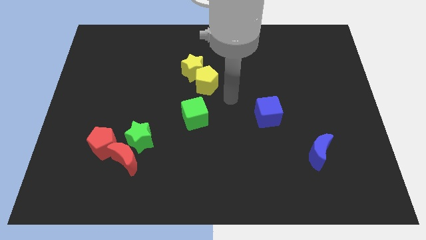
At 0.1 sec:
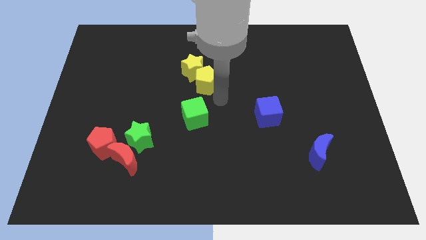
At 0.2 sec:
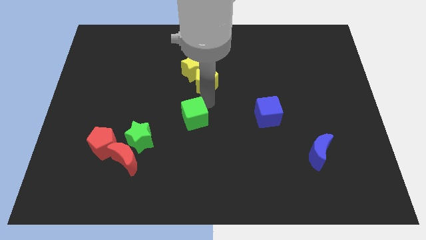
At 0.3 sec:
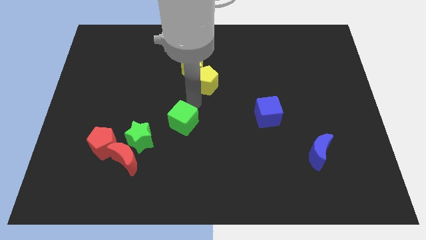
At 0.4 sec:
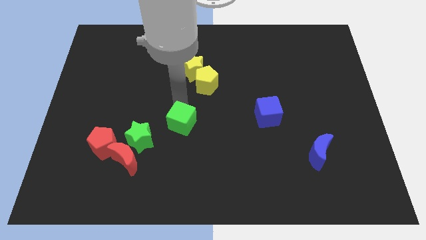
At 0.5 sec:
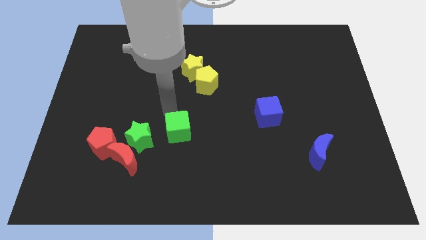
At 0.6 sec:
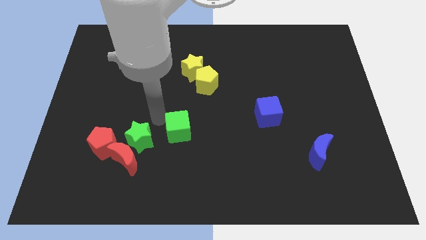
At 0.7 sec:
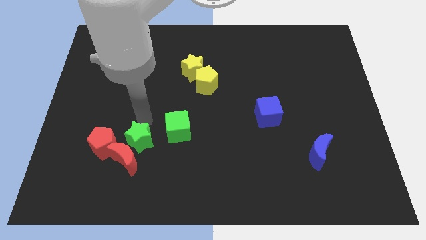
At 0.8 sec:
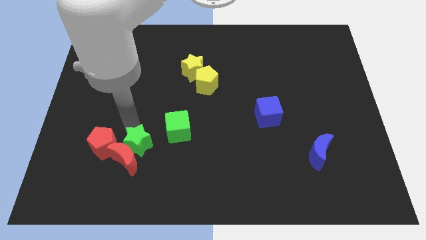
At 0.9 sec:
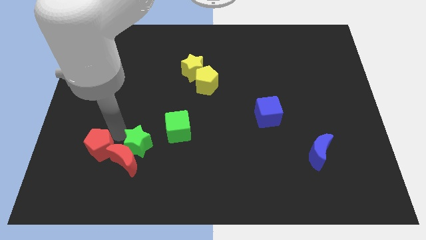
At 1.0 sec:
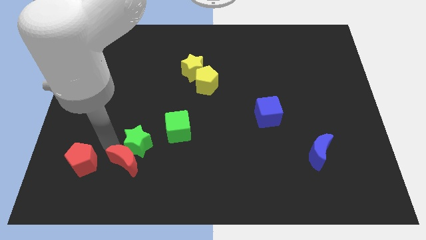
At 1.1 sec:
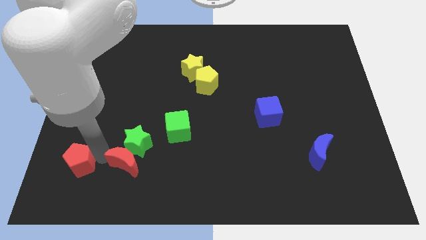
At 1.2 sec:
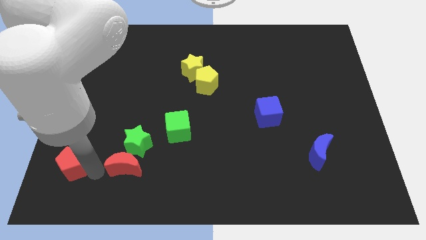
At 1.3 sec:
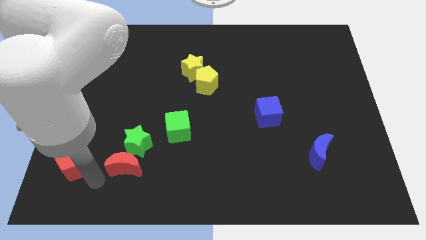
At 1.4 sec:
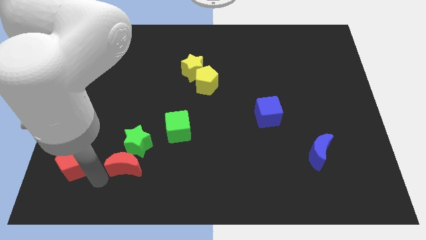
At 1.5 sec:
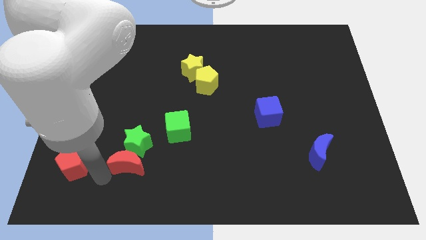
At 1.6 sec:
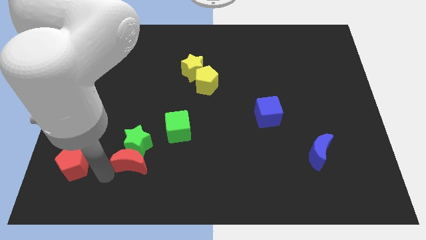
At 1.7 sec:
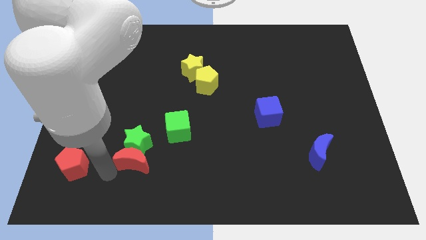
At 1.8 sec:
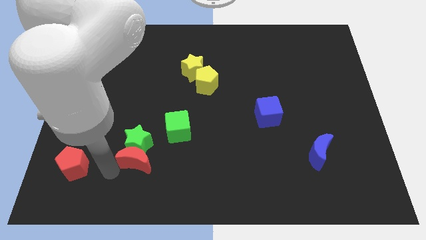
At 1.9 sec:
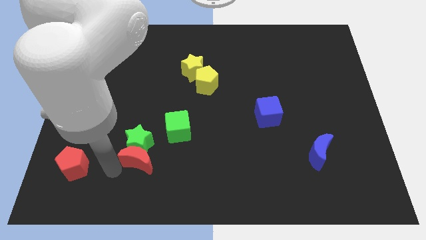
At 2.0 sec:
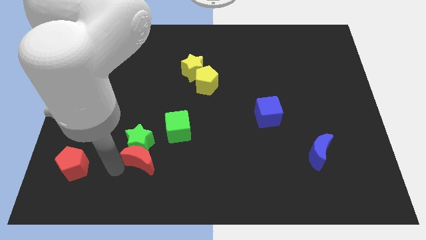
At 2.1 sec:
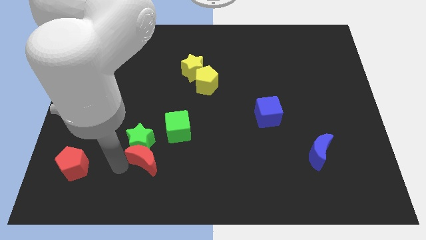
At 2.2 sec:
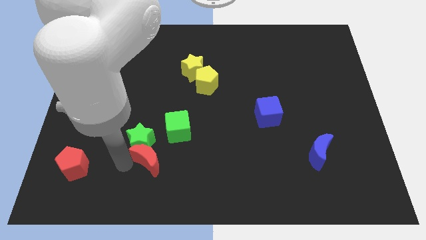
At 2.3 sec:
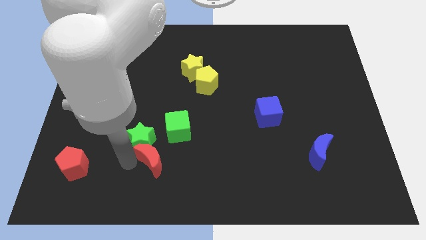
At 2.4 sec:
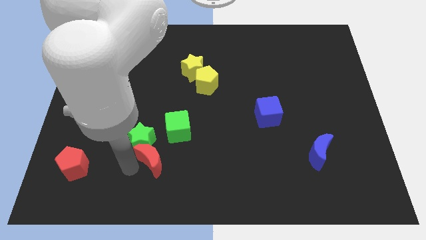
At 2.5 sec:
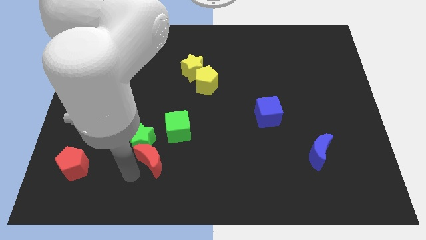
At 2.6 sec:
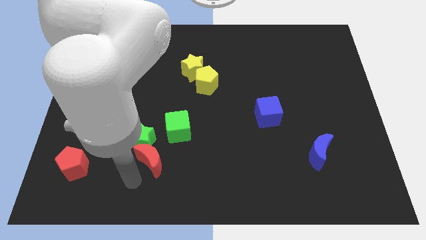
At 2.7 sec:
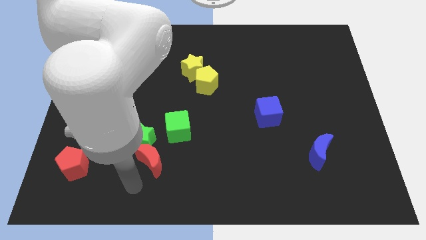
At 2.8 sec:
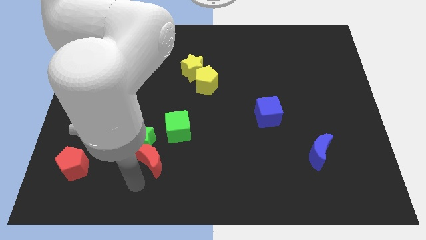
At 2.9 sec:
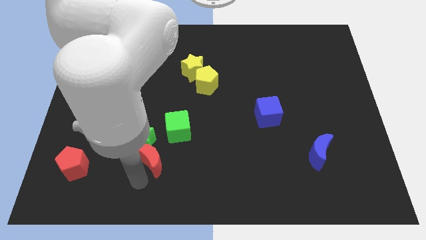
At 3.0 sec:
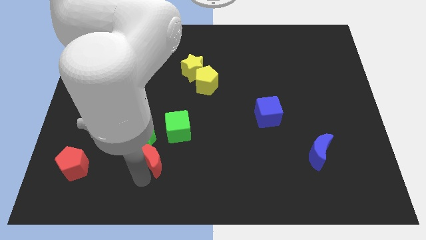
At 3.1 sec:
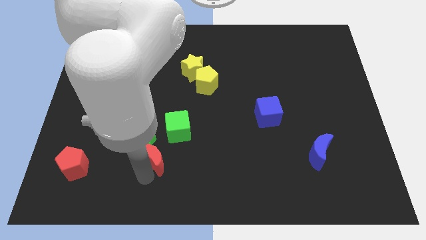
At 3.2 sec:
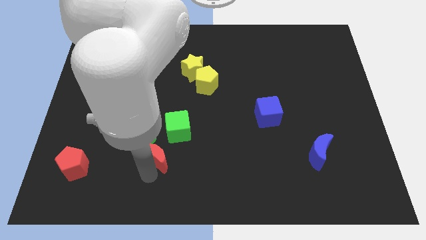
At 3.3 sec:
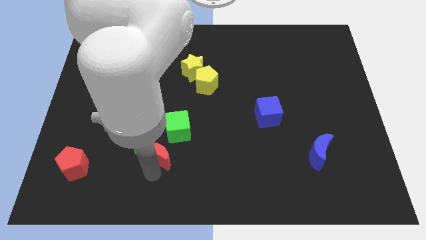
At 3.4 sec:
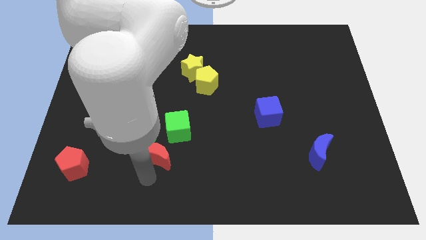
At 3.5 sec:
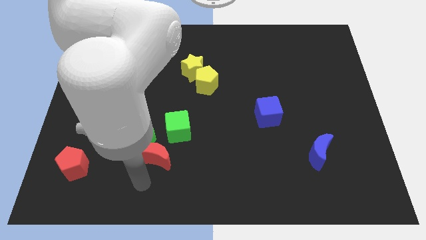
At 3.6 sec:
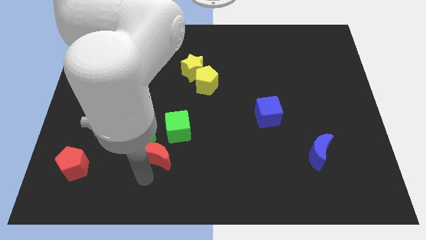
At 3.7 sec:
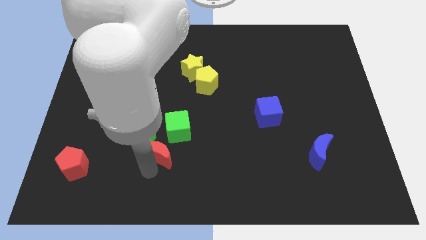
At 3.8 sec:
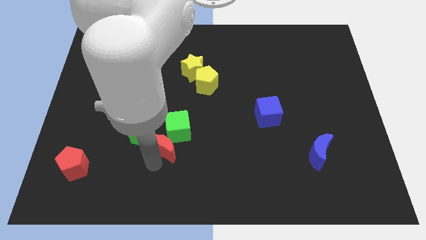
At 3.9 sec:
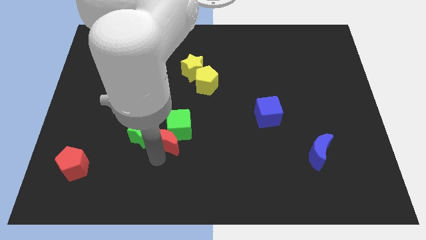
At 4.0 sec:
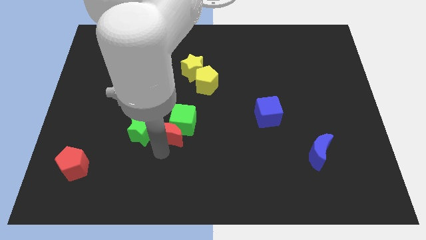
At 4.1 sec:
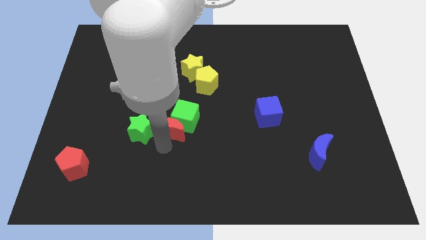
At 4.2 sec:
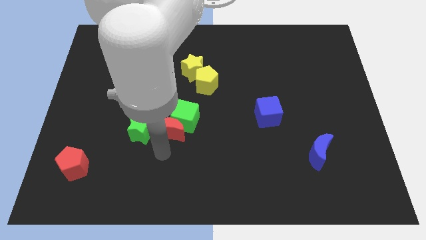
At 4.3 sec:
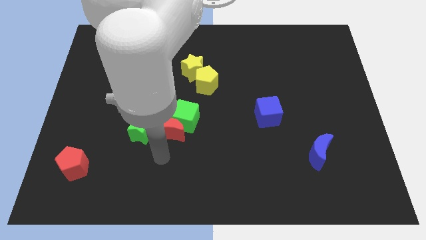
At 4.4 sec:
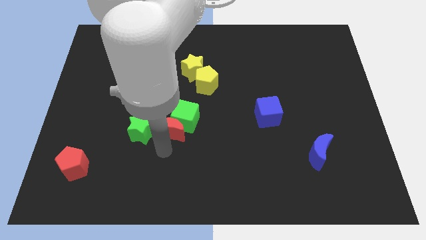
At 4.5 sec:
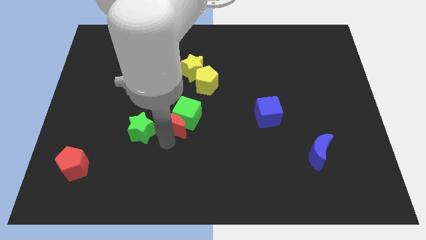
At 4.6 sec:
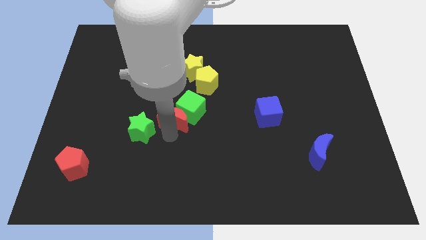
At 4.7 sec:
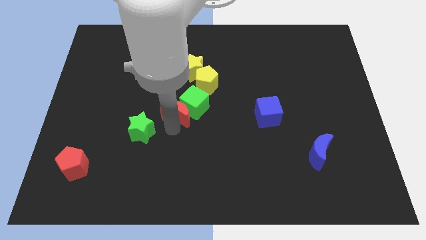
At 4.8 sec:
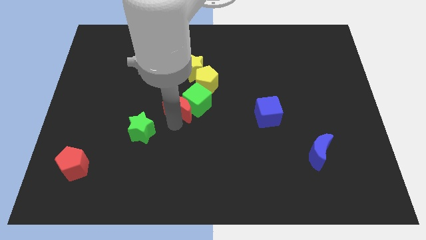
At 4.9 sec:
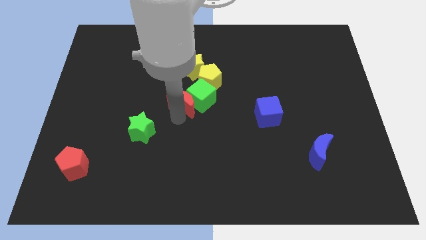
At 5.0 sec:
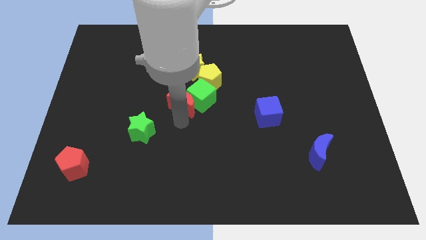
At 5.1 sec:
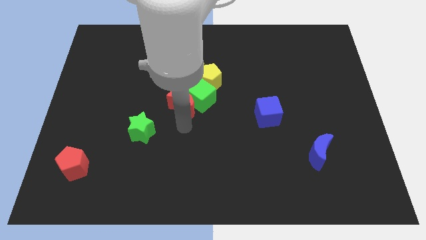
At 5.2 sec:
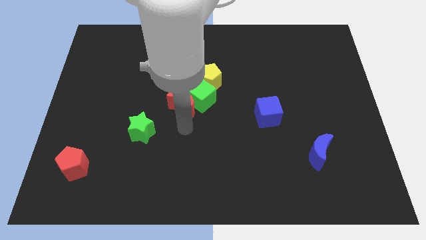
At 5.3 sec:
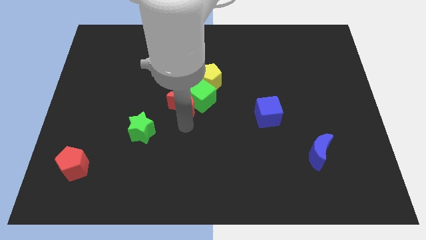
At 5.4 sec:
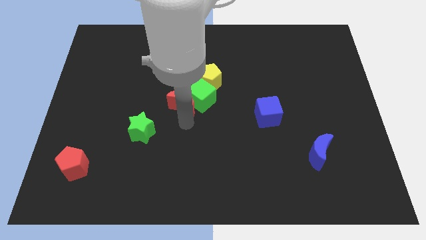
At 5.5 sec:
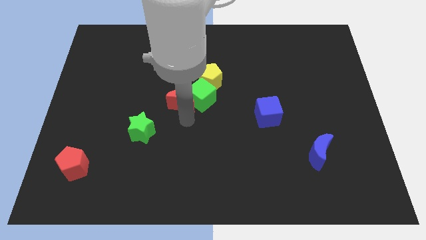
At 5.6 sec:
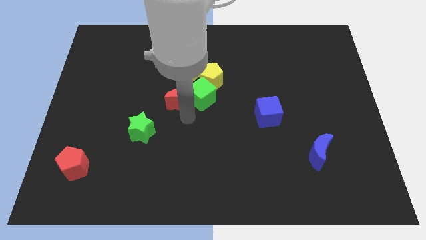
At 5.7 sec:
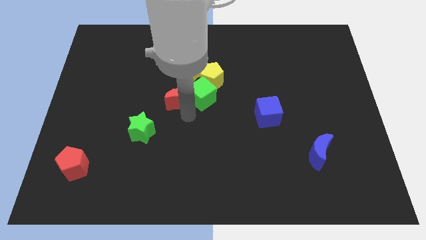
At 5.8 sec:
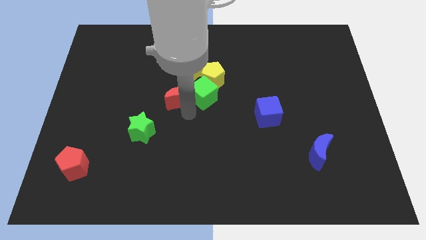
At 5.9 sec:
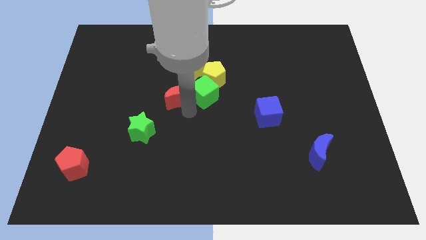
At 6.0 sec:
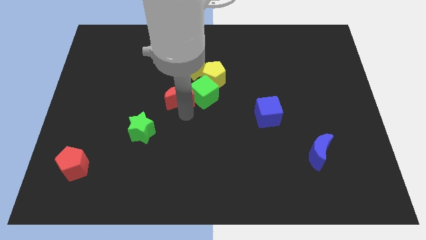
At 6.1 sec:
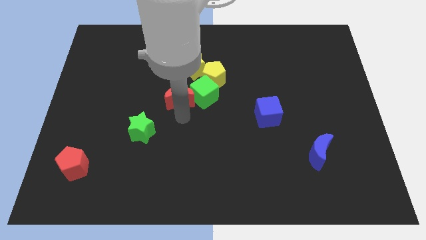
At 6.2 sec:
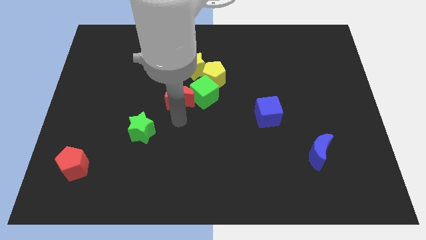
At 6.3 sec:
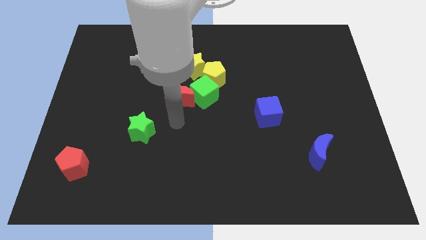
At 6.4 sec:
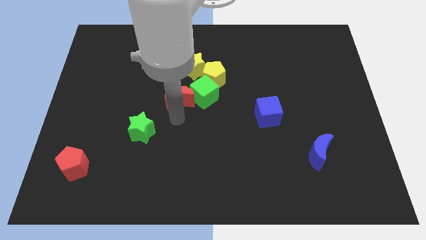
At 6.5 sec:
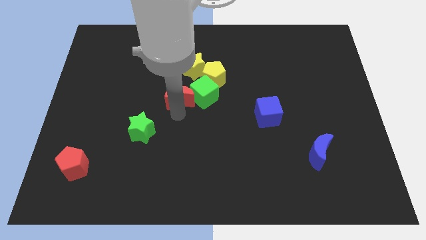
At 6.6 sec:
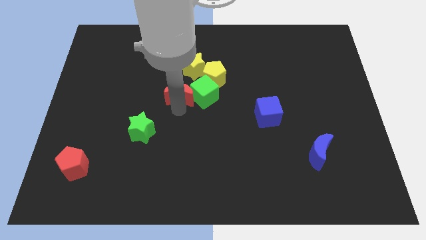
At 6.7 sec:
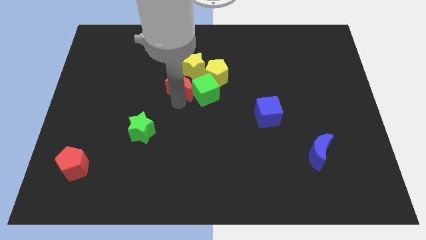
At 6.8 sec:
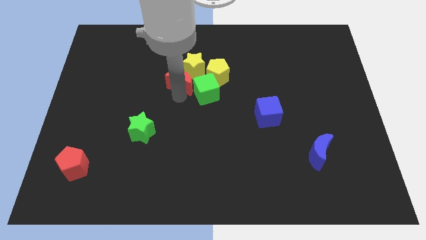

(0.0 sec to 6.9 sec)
push the red moon towards the yellow star

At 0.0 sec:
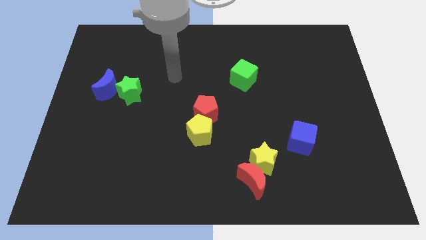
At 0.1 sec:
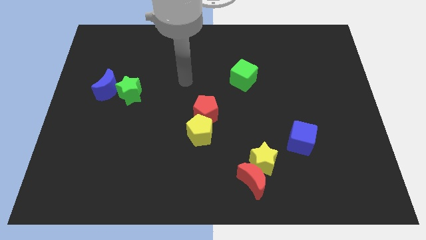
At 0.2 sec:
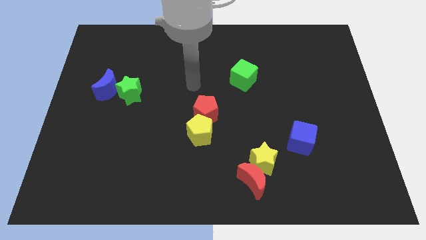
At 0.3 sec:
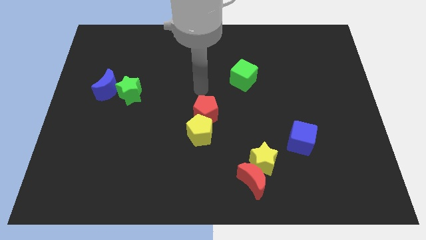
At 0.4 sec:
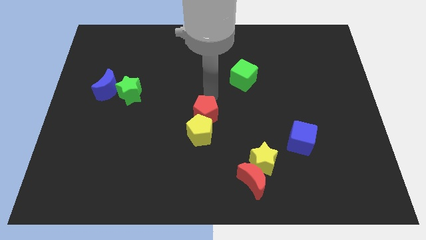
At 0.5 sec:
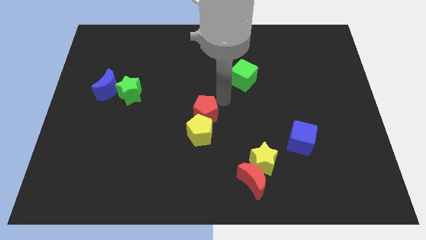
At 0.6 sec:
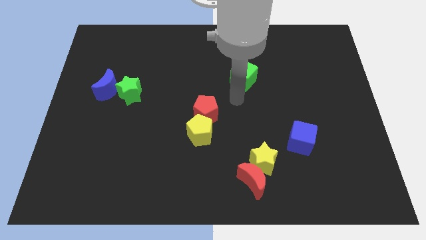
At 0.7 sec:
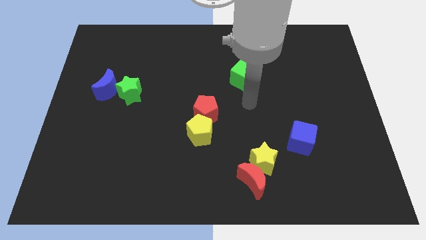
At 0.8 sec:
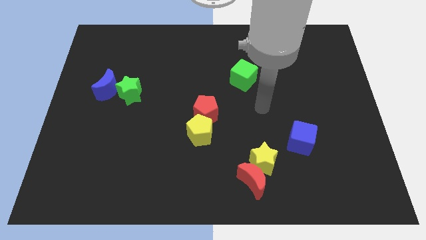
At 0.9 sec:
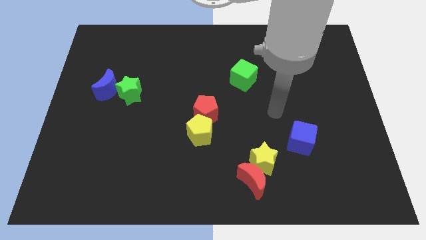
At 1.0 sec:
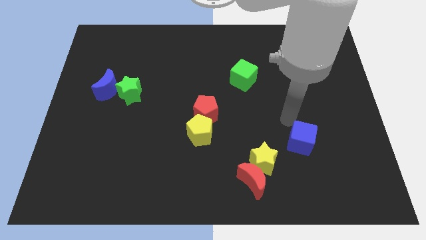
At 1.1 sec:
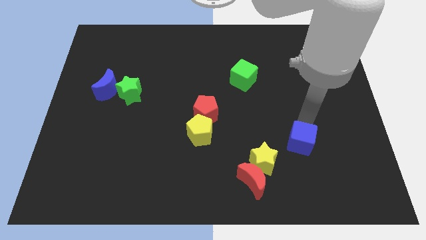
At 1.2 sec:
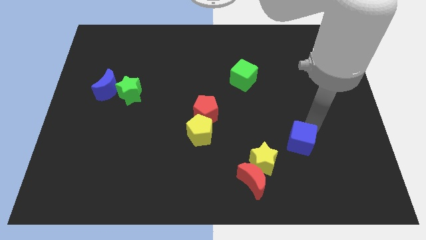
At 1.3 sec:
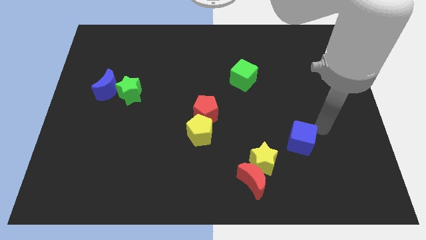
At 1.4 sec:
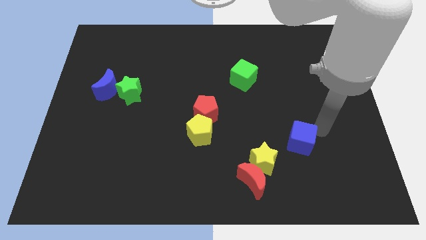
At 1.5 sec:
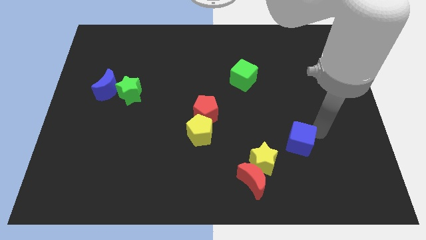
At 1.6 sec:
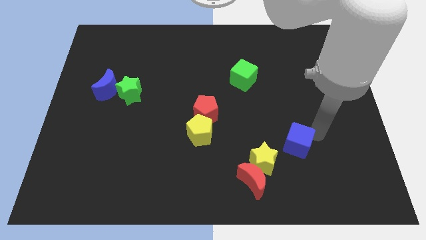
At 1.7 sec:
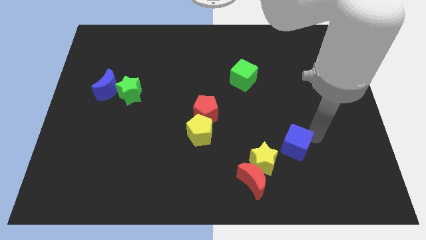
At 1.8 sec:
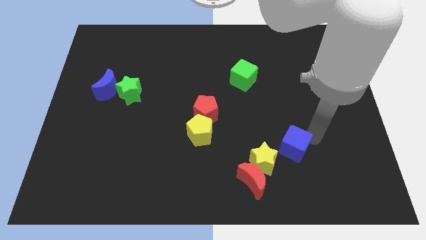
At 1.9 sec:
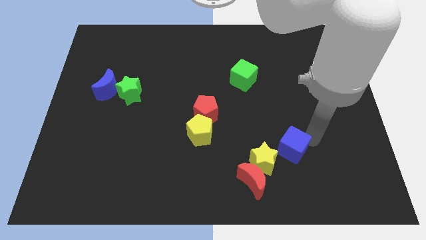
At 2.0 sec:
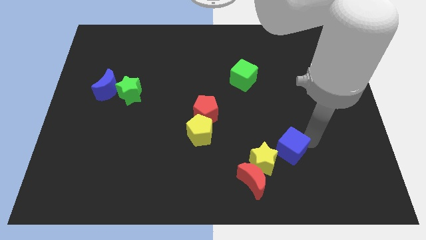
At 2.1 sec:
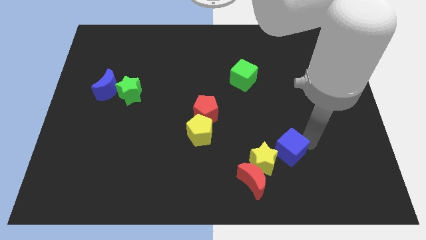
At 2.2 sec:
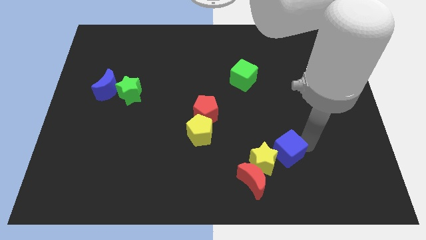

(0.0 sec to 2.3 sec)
put the blue cube close to the yellow star
